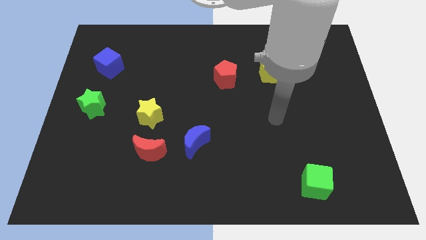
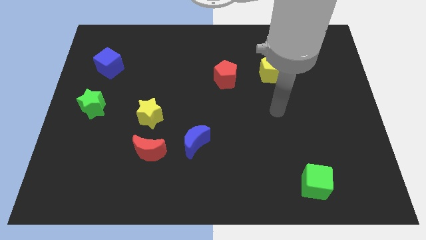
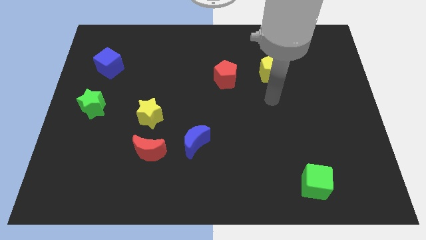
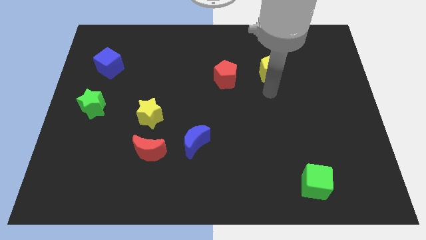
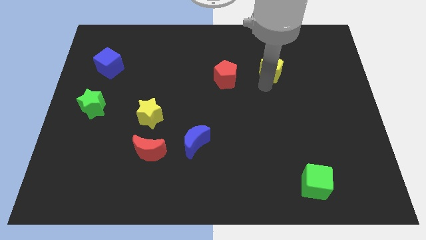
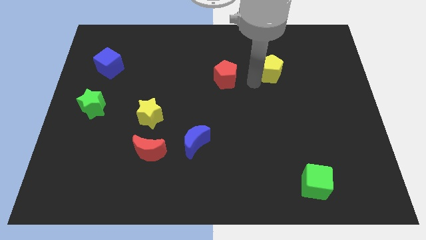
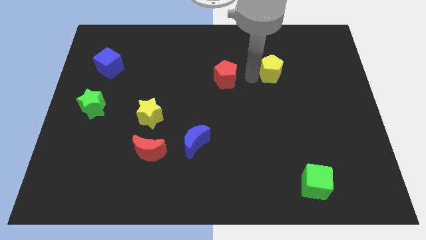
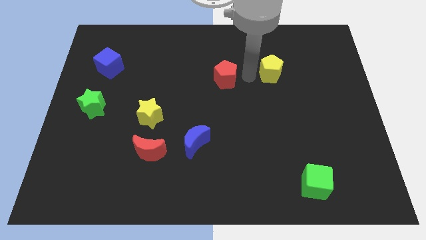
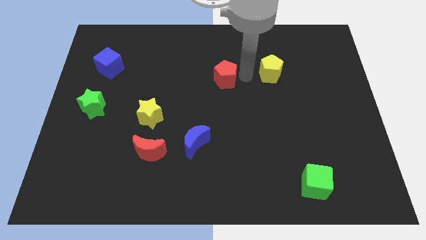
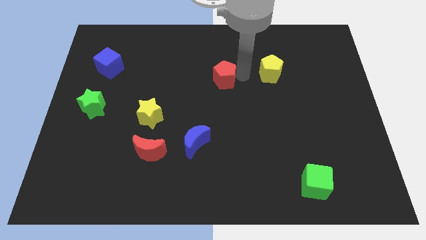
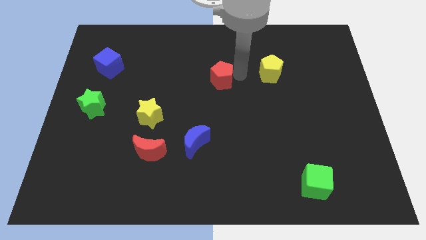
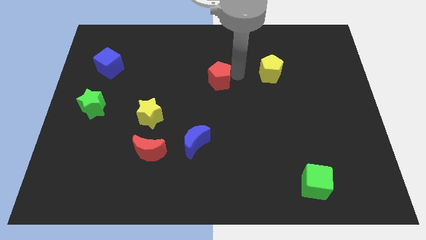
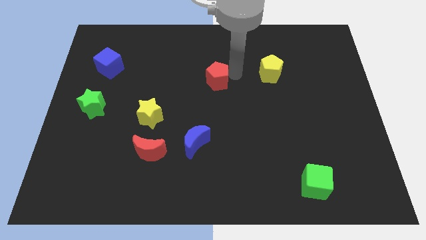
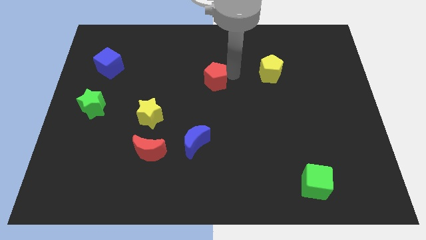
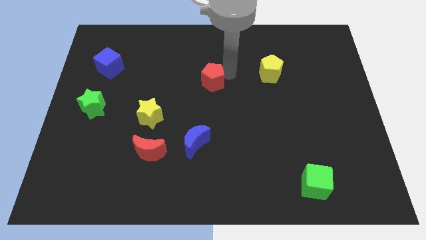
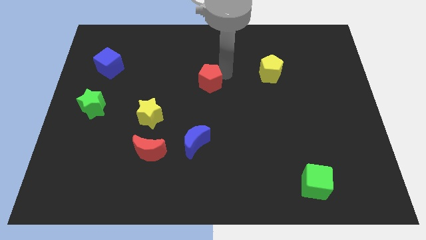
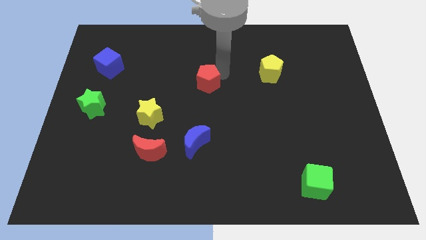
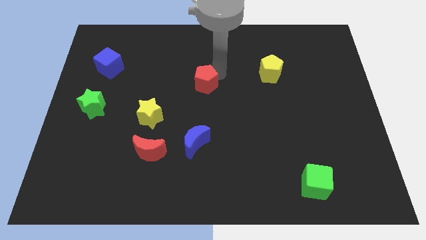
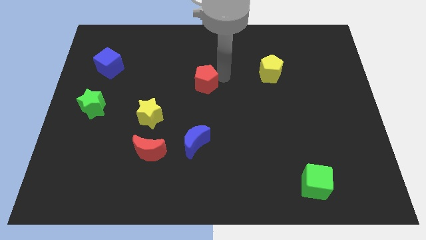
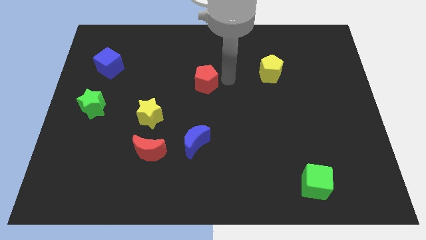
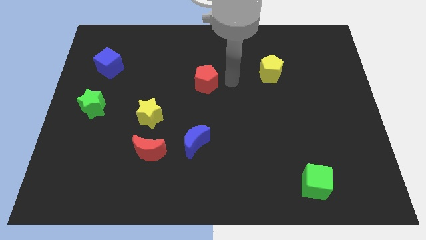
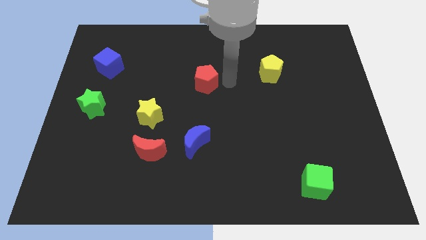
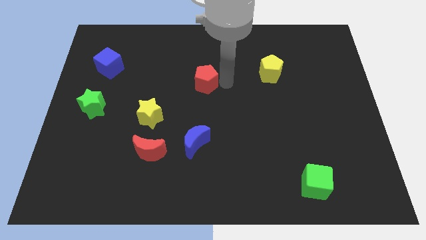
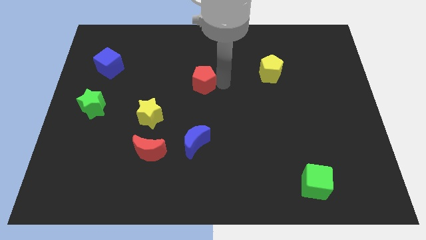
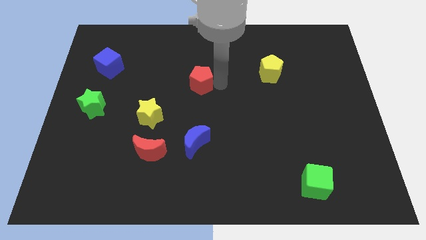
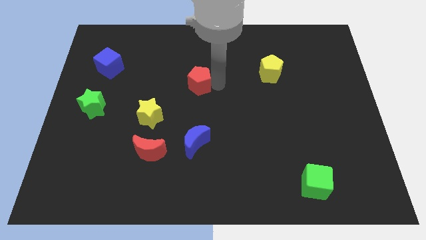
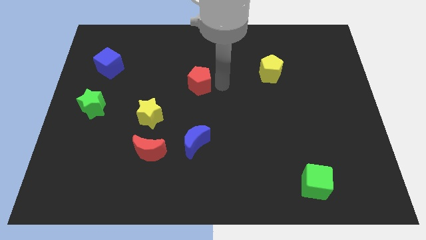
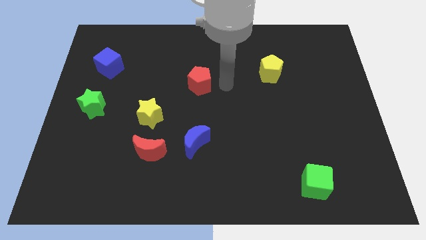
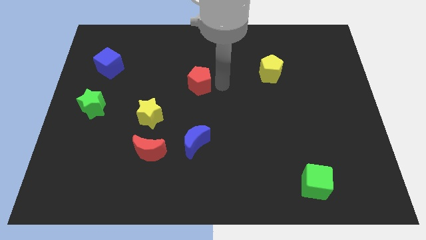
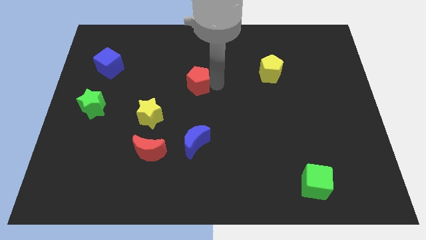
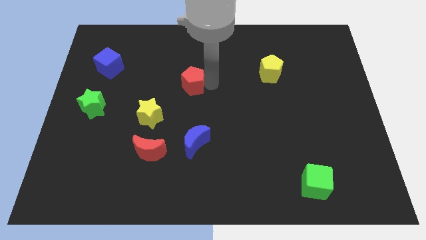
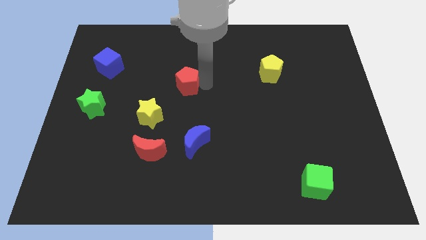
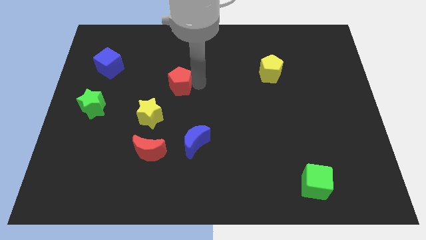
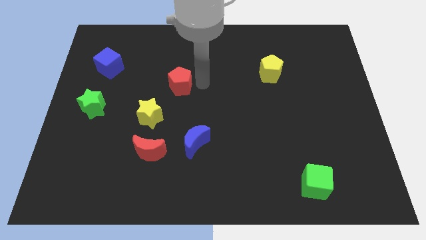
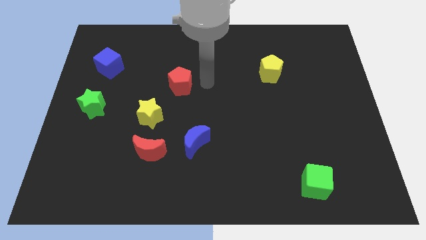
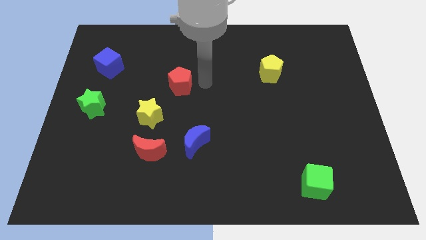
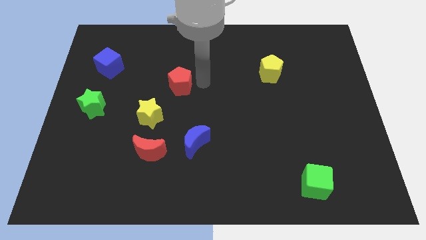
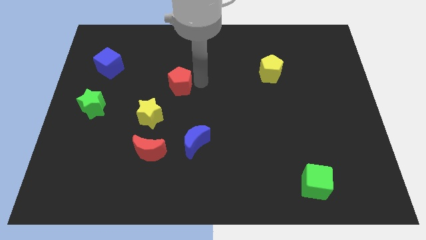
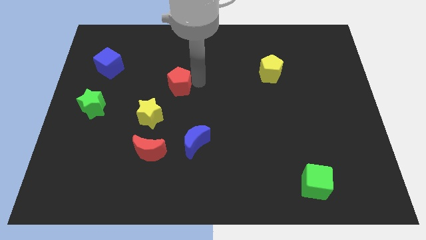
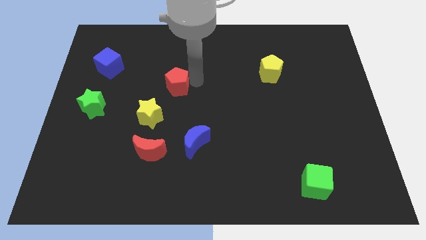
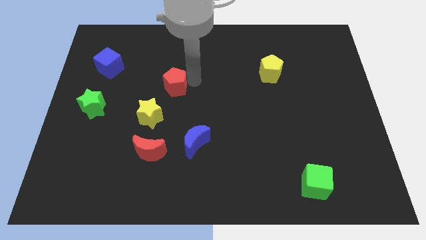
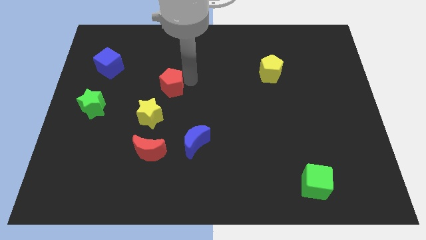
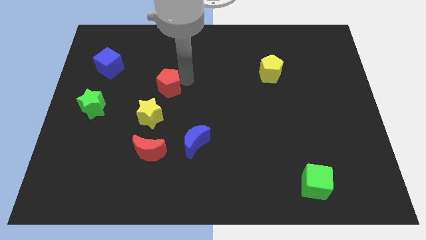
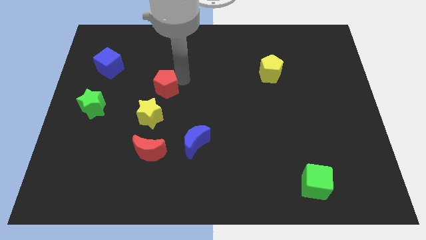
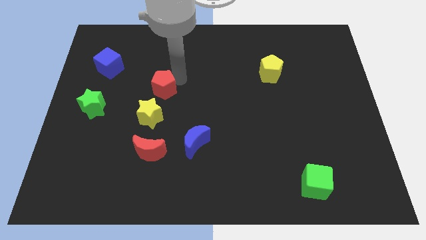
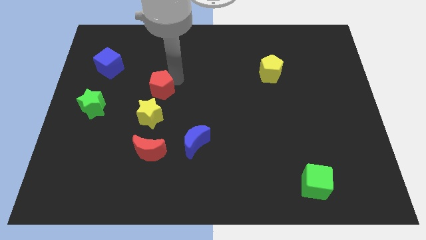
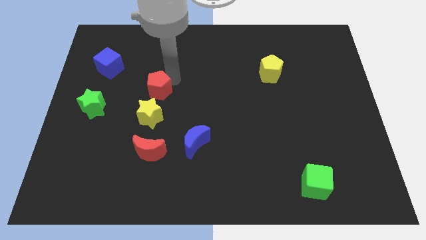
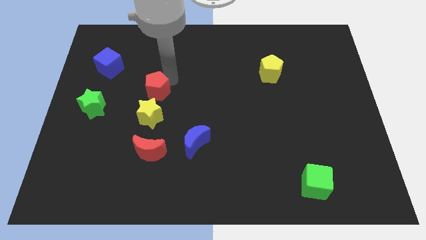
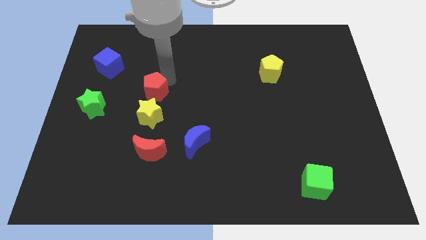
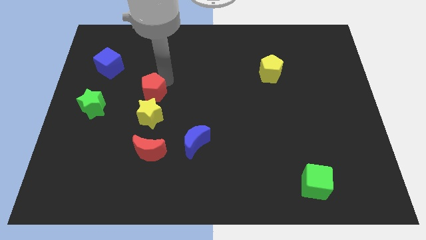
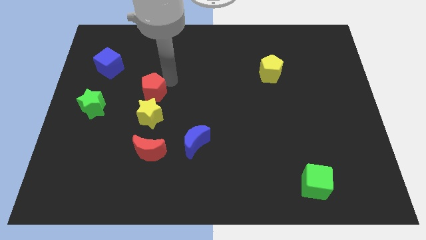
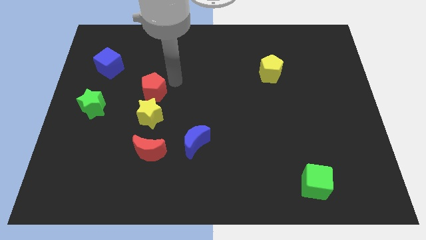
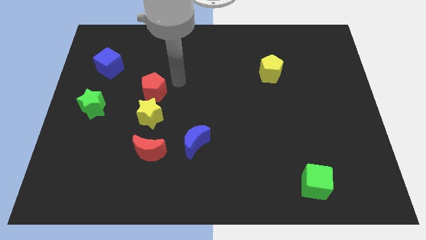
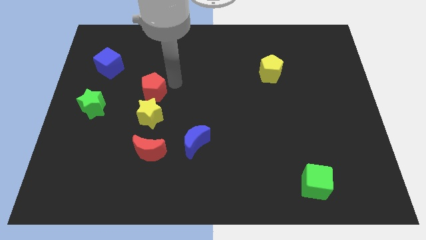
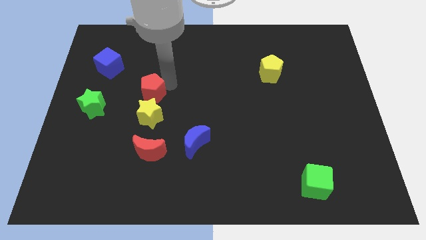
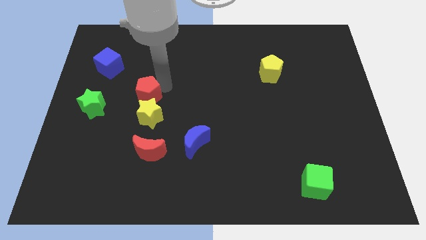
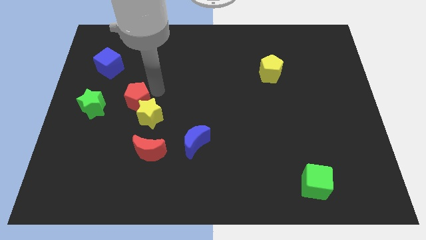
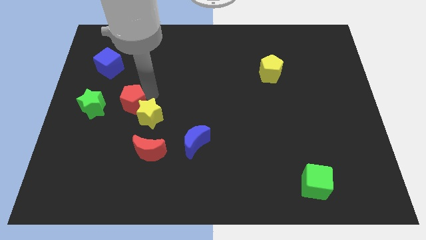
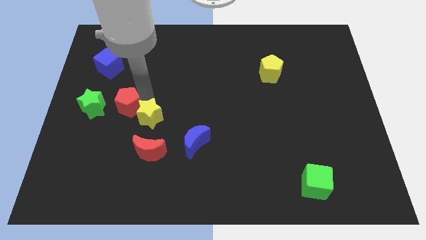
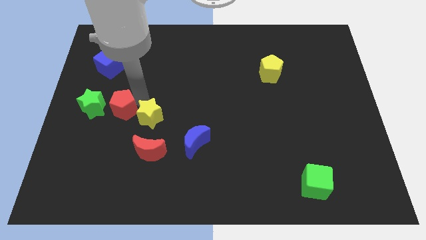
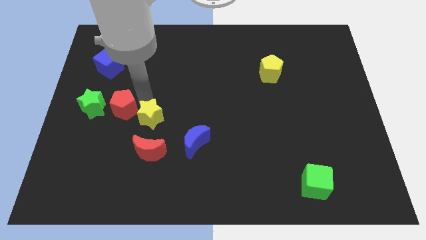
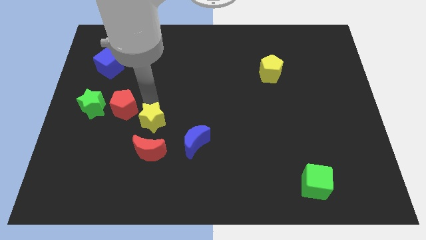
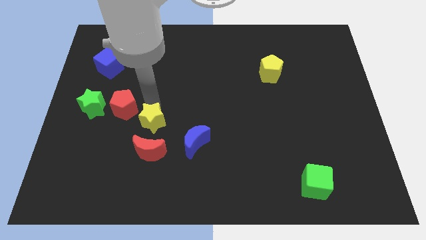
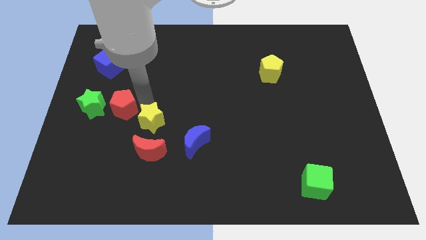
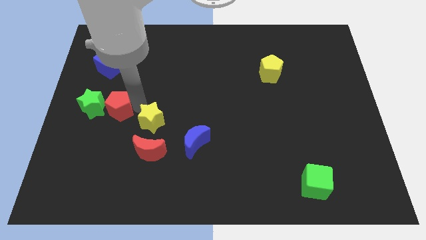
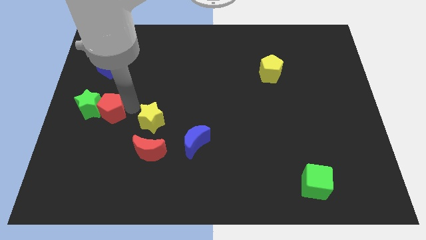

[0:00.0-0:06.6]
put the red pentagon next to the green star
